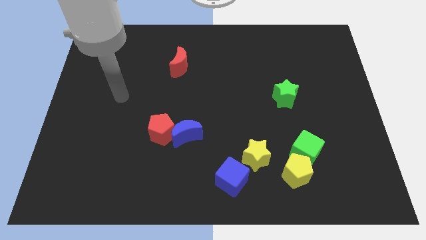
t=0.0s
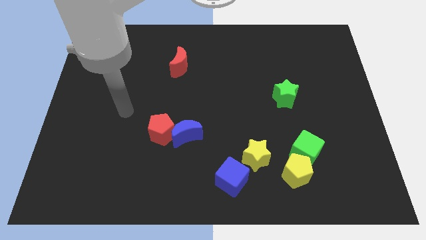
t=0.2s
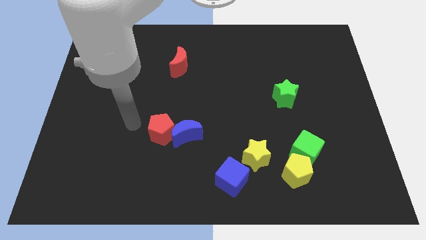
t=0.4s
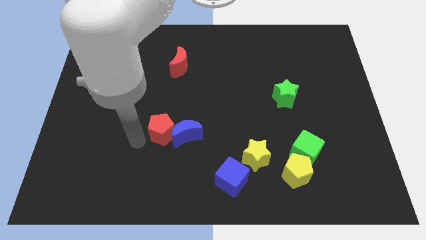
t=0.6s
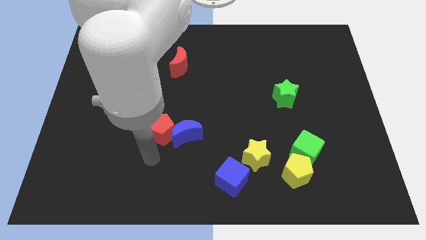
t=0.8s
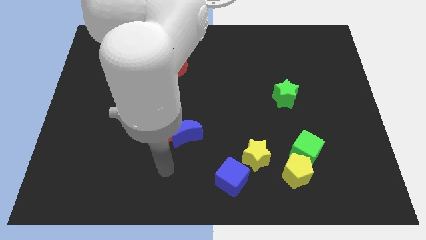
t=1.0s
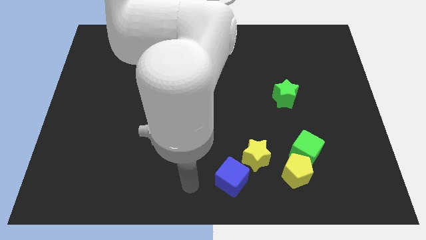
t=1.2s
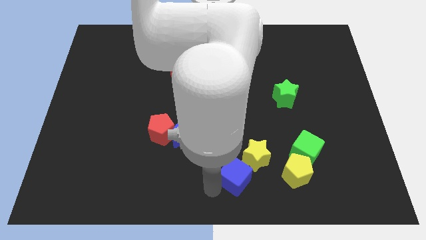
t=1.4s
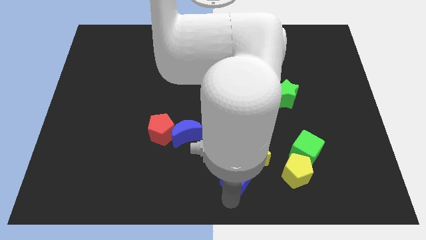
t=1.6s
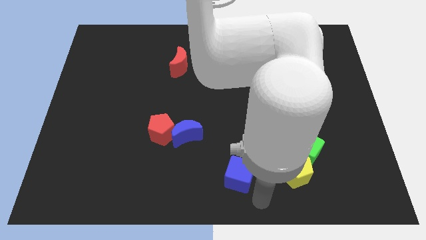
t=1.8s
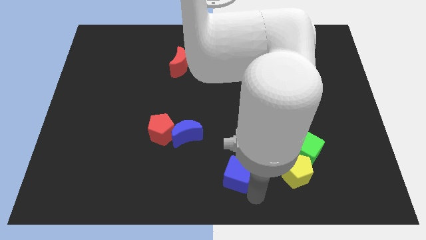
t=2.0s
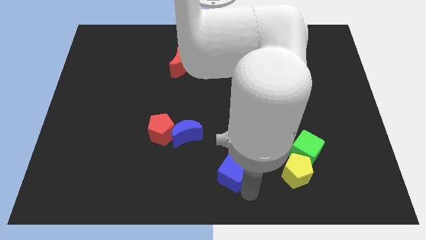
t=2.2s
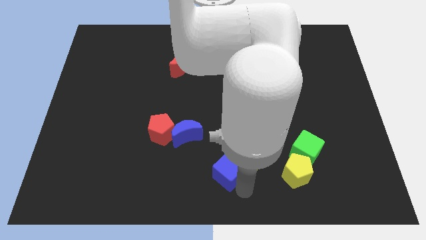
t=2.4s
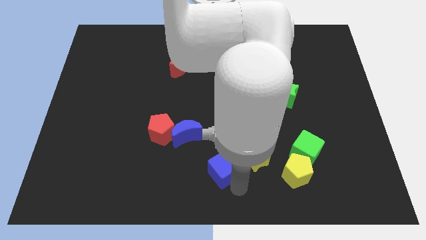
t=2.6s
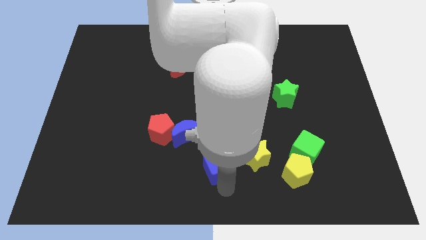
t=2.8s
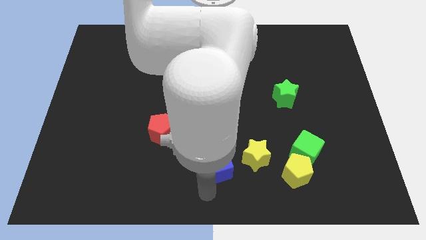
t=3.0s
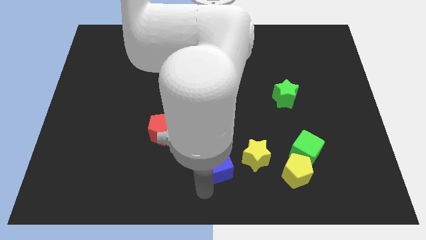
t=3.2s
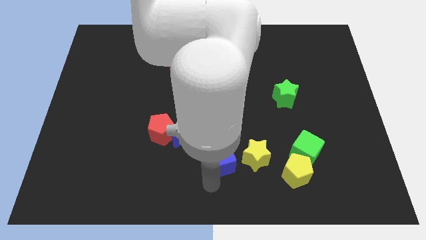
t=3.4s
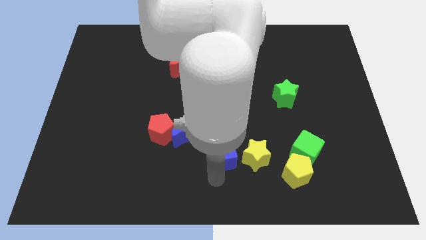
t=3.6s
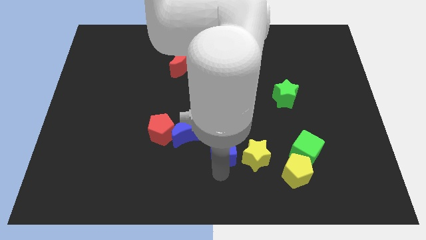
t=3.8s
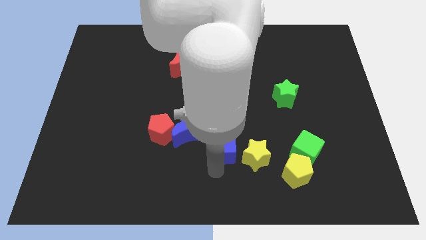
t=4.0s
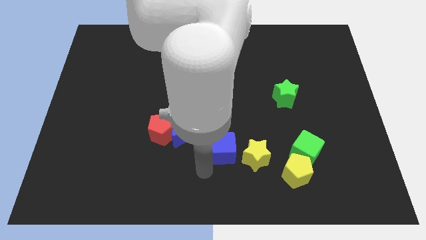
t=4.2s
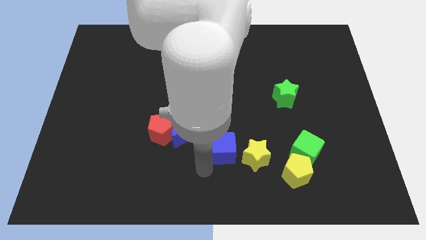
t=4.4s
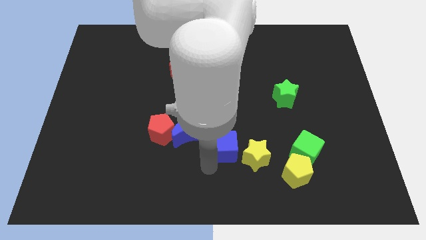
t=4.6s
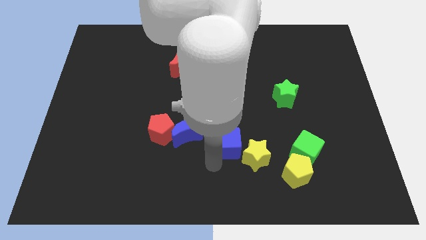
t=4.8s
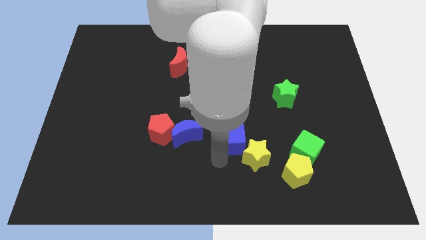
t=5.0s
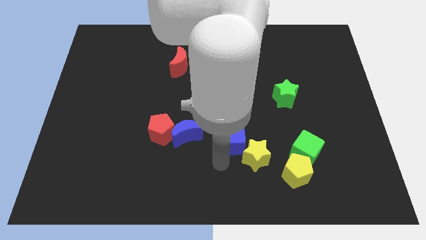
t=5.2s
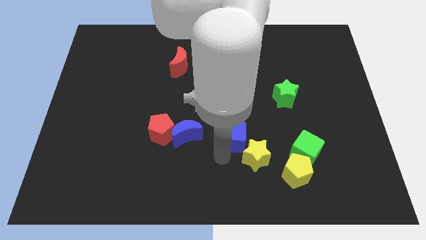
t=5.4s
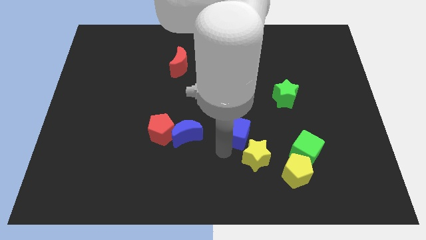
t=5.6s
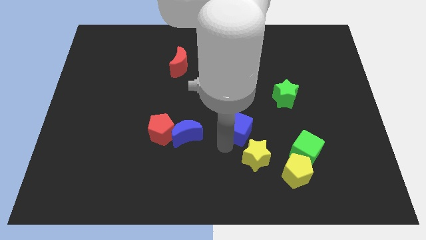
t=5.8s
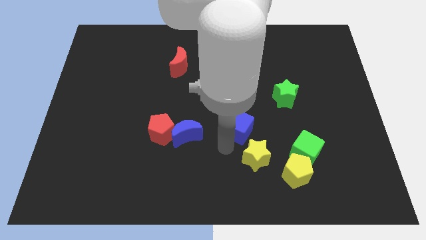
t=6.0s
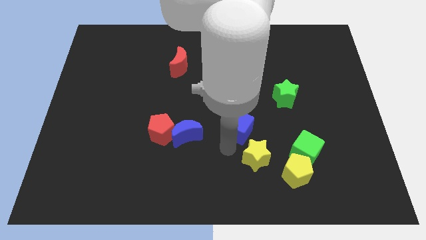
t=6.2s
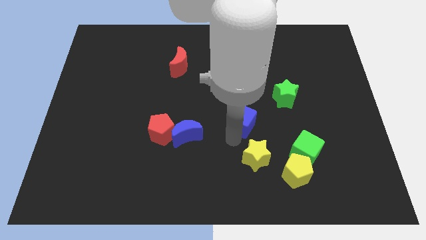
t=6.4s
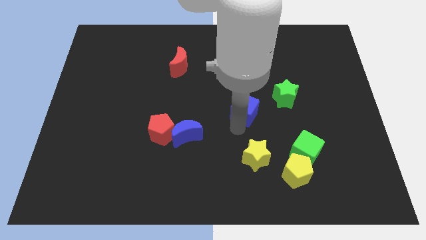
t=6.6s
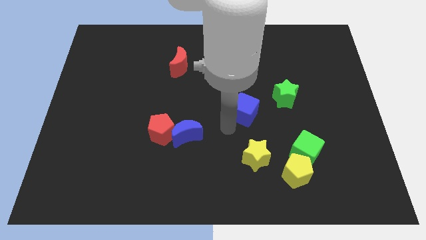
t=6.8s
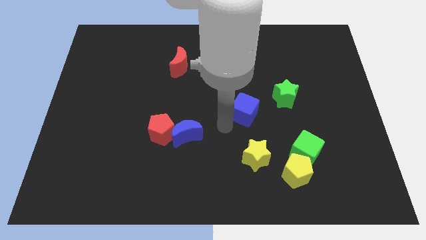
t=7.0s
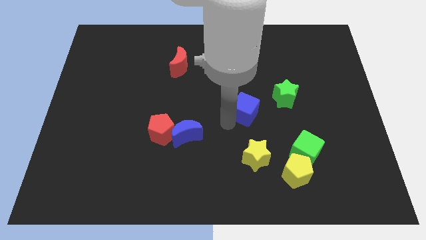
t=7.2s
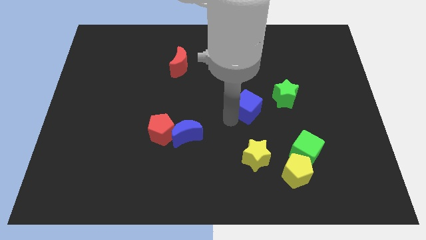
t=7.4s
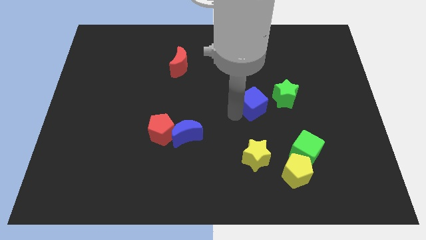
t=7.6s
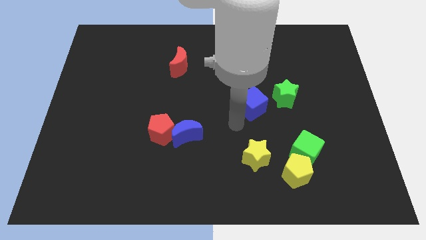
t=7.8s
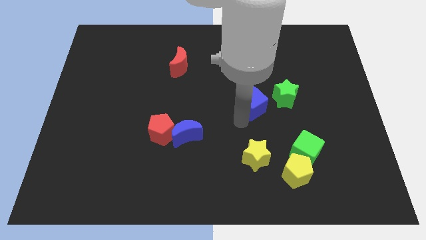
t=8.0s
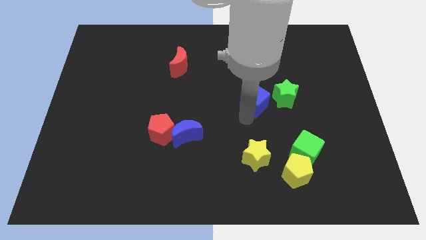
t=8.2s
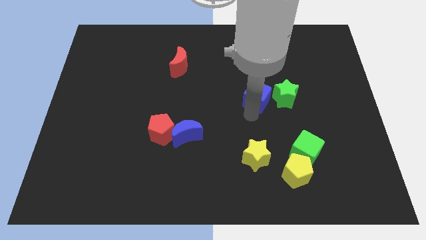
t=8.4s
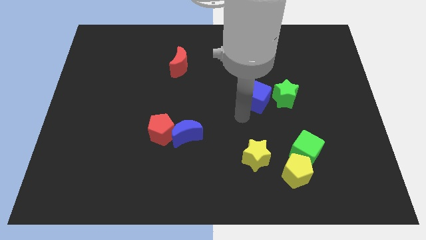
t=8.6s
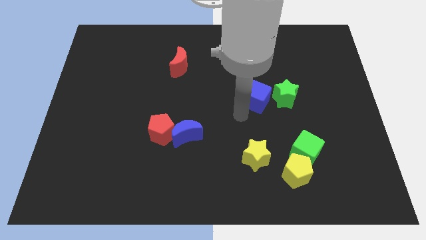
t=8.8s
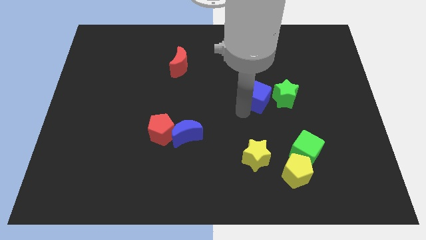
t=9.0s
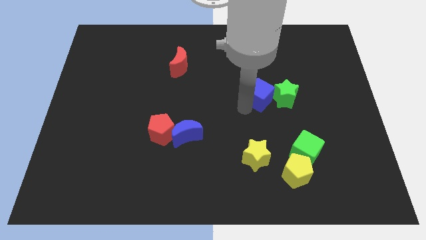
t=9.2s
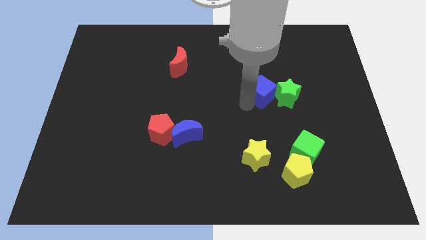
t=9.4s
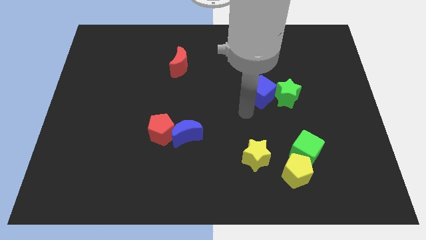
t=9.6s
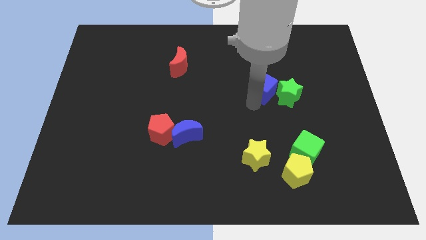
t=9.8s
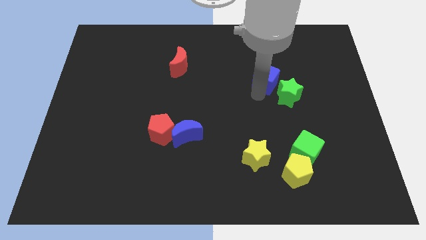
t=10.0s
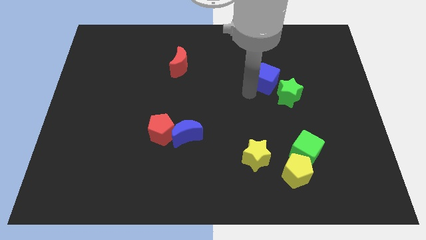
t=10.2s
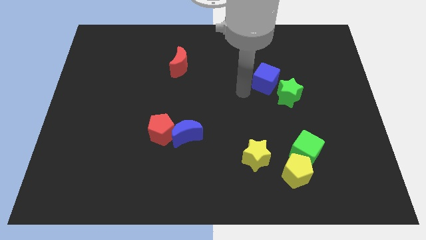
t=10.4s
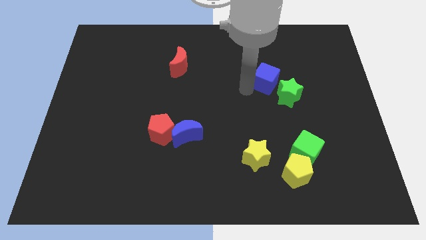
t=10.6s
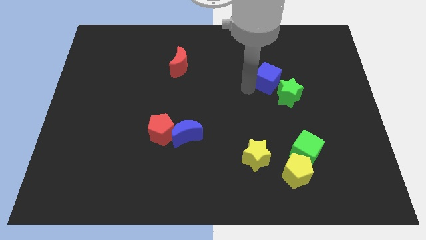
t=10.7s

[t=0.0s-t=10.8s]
move the blue cube to the top of the green star

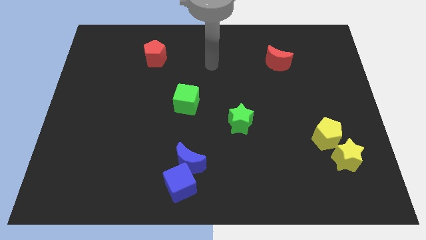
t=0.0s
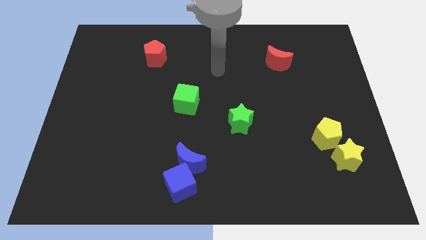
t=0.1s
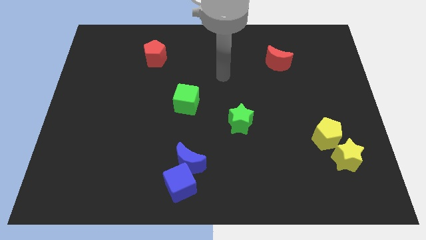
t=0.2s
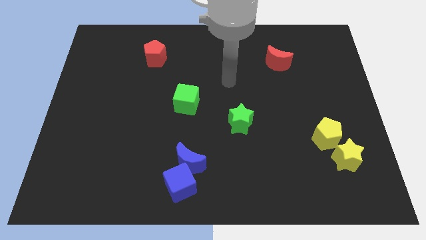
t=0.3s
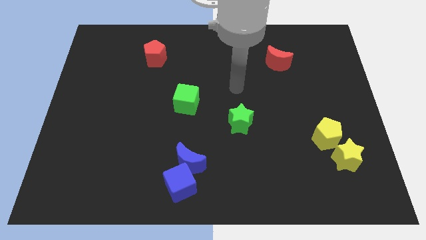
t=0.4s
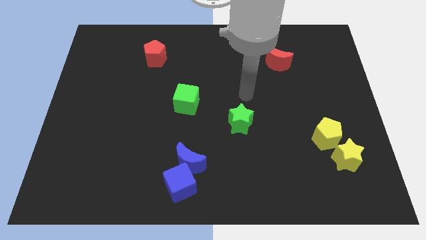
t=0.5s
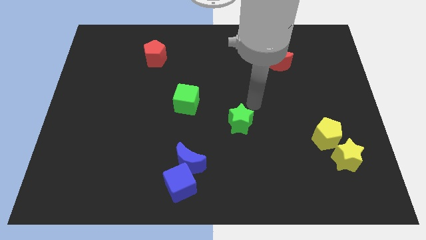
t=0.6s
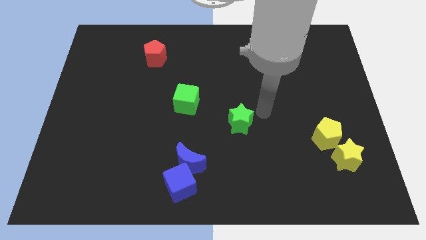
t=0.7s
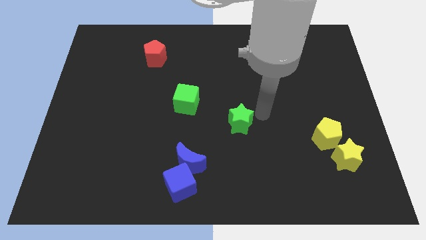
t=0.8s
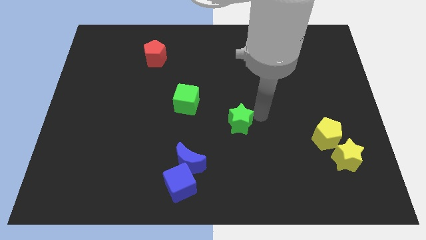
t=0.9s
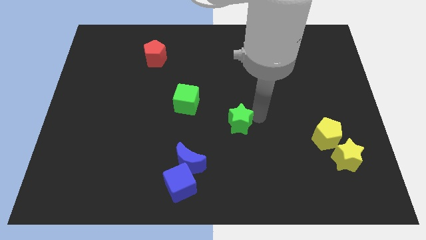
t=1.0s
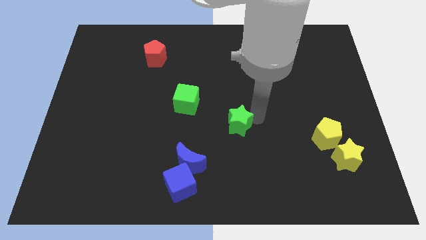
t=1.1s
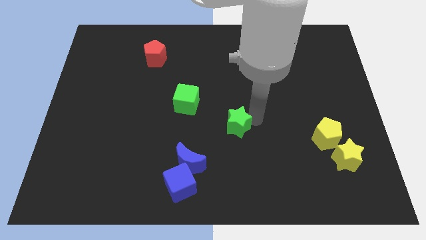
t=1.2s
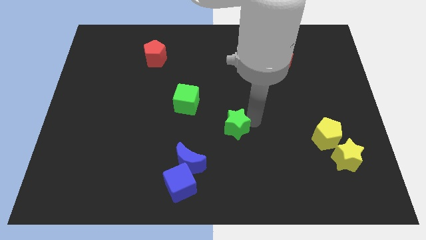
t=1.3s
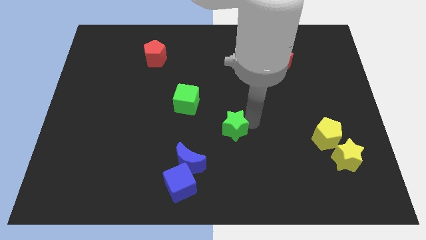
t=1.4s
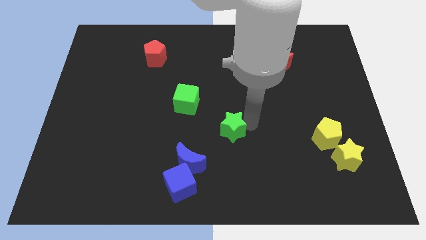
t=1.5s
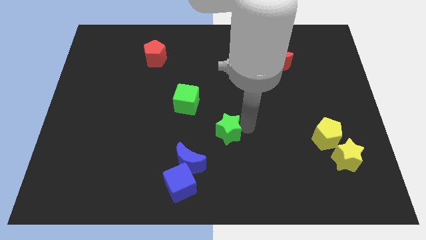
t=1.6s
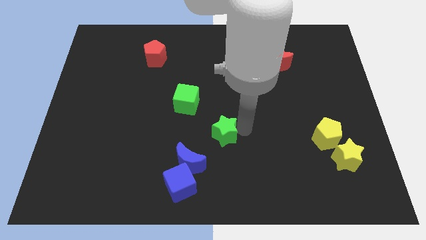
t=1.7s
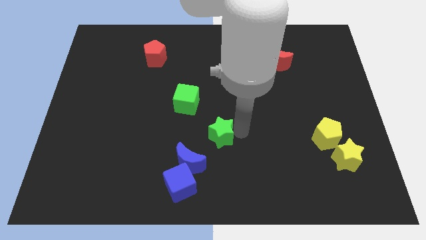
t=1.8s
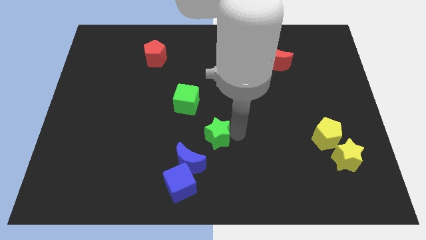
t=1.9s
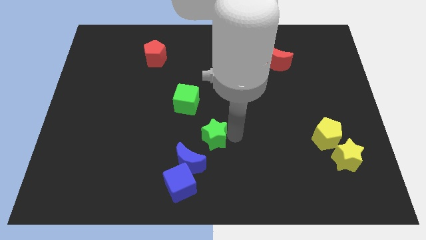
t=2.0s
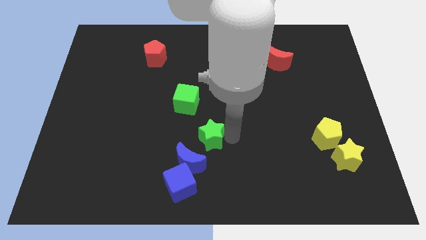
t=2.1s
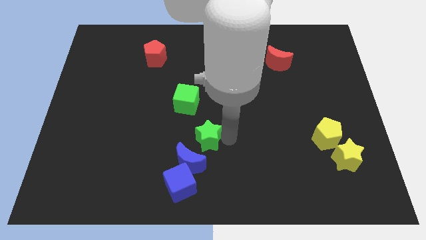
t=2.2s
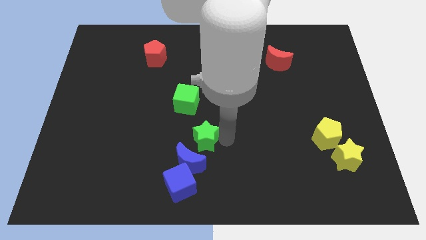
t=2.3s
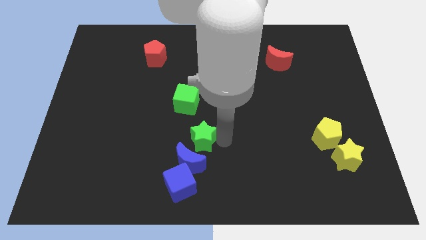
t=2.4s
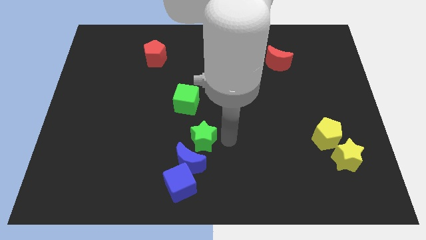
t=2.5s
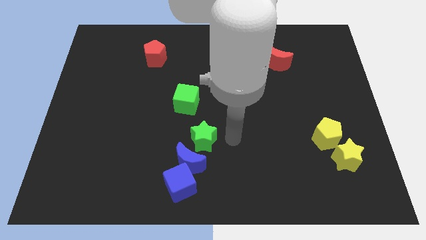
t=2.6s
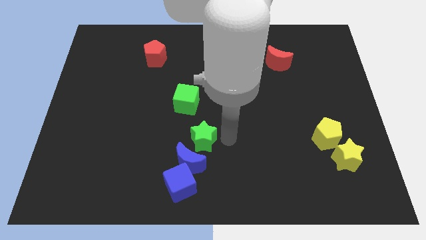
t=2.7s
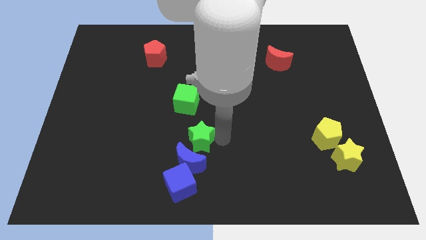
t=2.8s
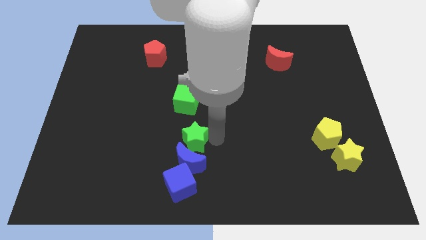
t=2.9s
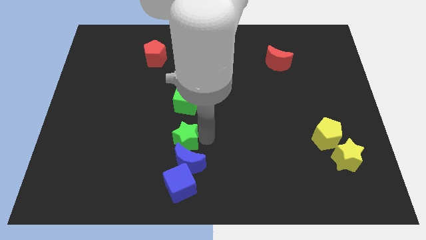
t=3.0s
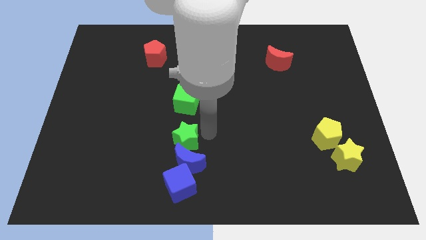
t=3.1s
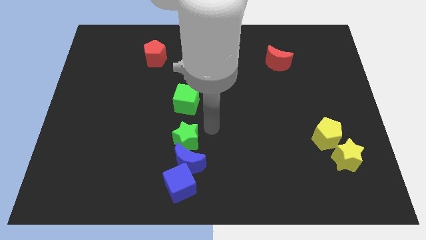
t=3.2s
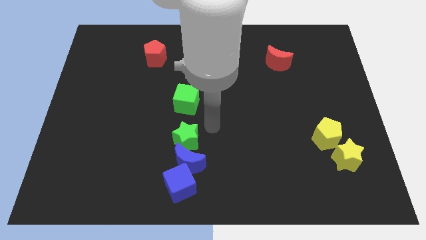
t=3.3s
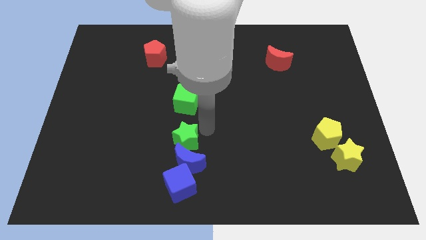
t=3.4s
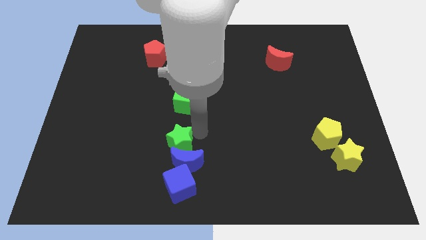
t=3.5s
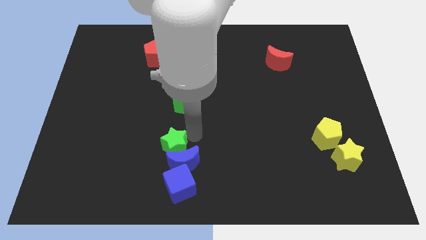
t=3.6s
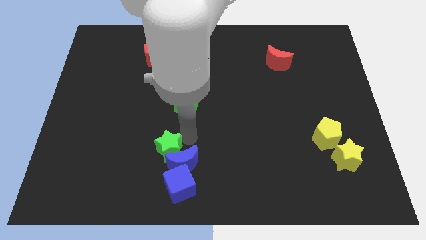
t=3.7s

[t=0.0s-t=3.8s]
move the green star to the left of the blue moon
